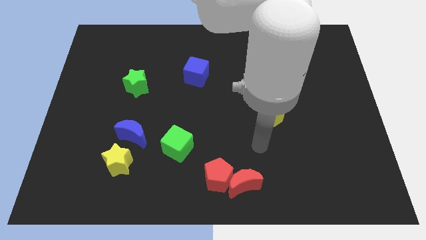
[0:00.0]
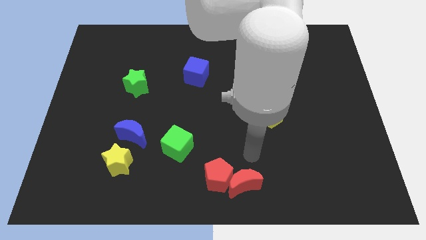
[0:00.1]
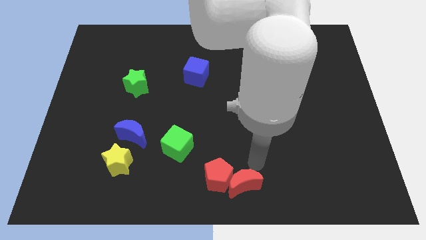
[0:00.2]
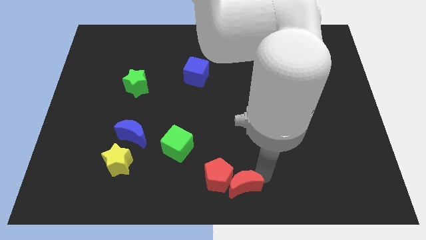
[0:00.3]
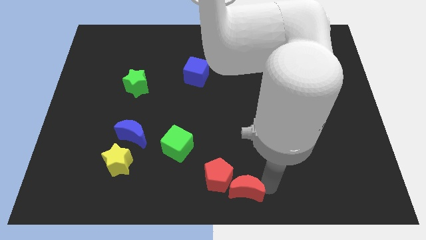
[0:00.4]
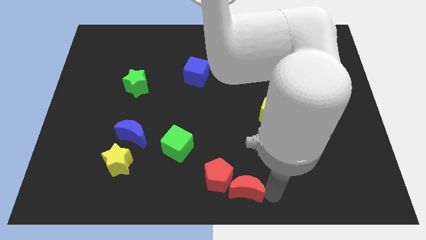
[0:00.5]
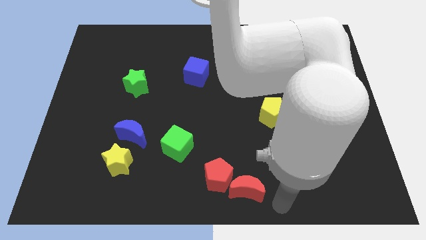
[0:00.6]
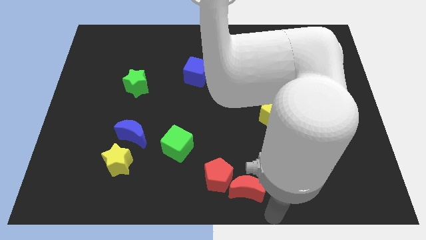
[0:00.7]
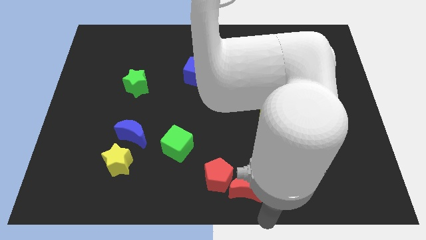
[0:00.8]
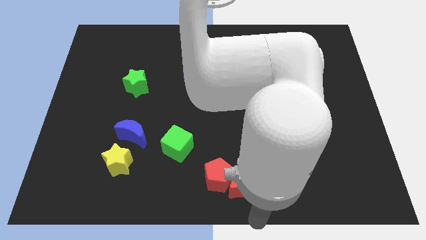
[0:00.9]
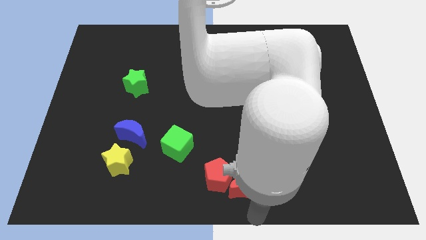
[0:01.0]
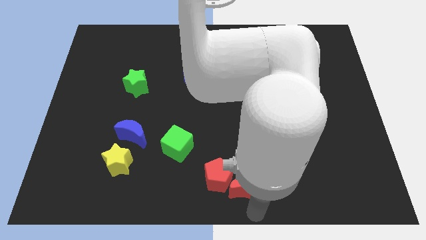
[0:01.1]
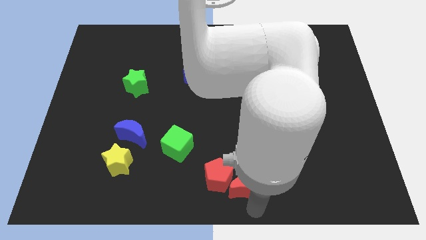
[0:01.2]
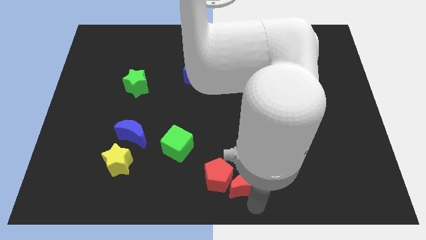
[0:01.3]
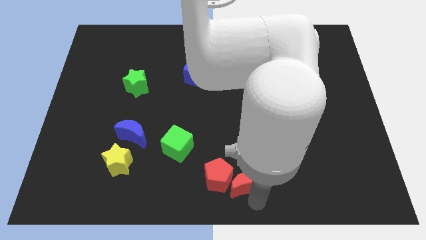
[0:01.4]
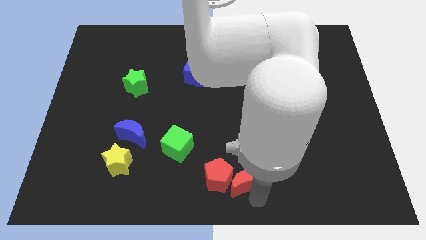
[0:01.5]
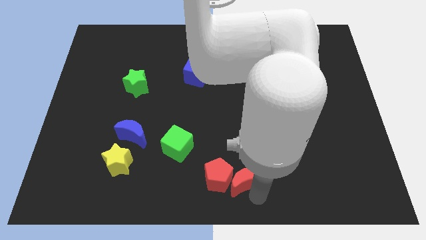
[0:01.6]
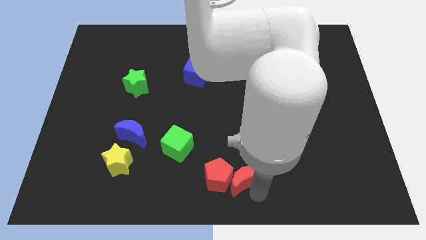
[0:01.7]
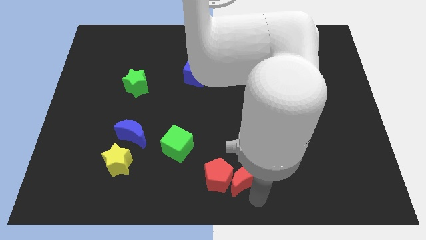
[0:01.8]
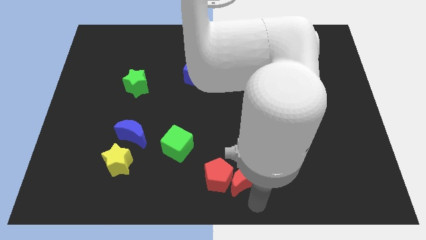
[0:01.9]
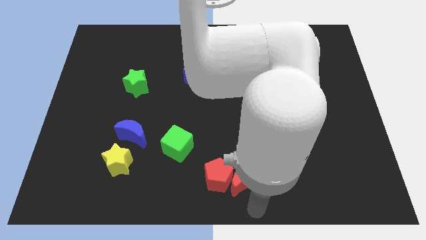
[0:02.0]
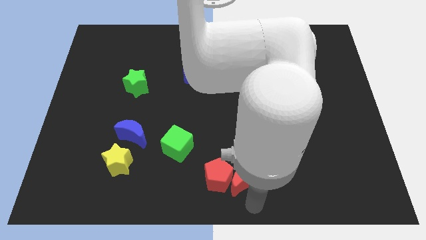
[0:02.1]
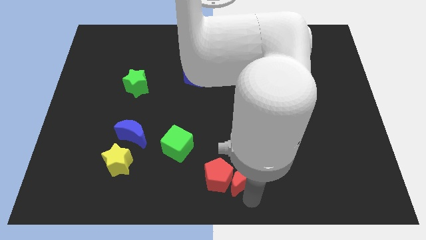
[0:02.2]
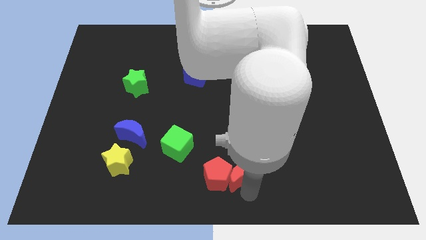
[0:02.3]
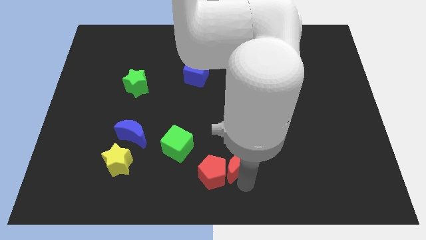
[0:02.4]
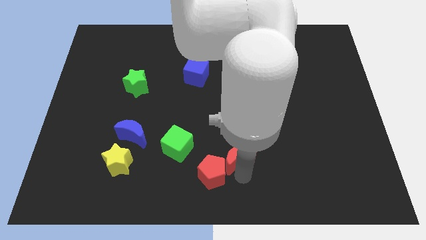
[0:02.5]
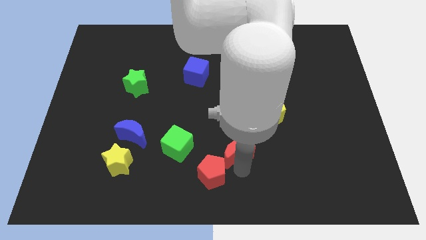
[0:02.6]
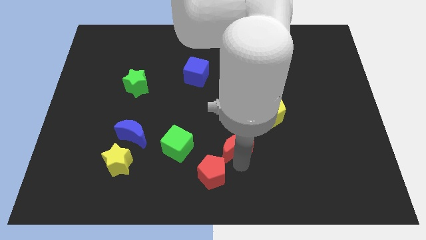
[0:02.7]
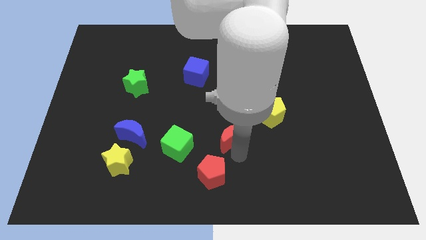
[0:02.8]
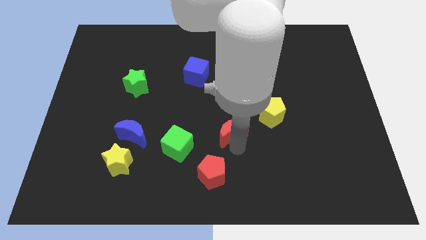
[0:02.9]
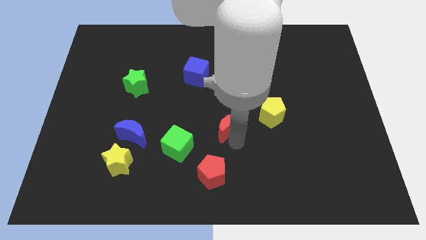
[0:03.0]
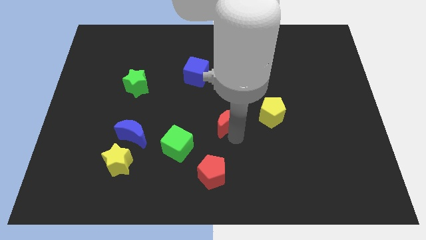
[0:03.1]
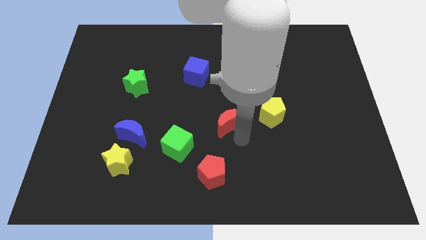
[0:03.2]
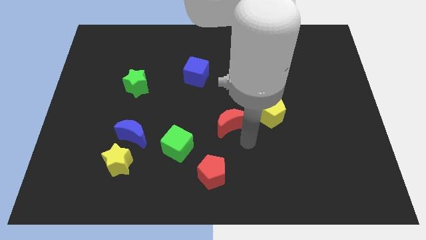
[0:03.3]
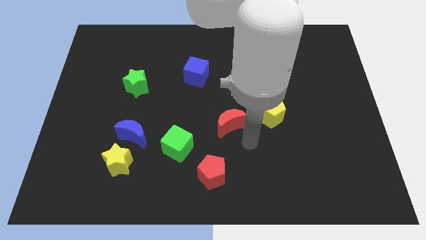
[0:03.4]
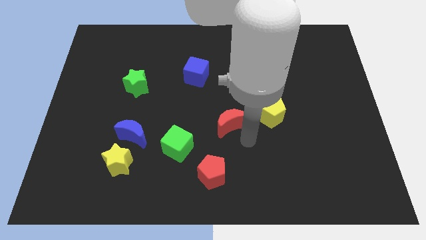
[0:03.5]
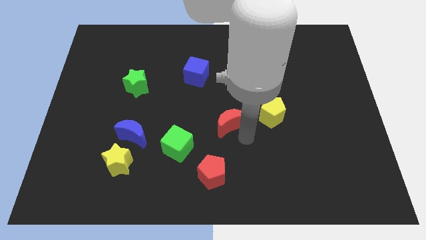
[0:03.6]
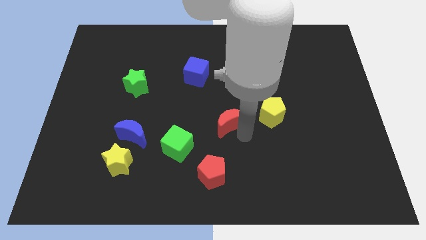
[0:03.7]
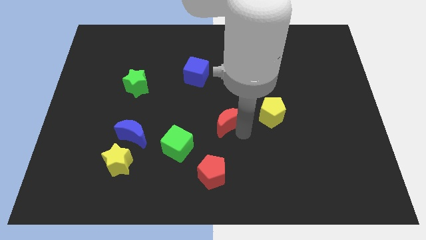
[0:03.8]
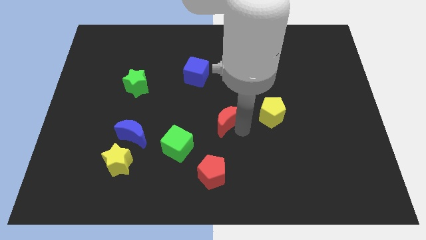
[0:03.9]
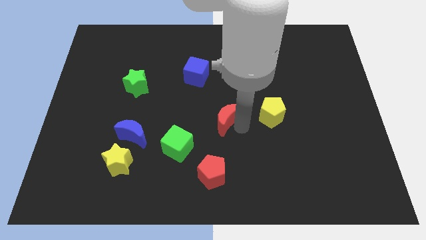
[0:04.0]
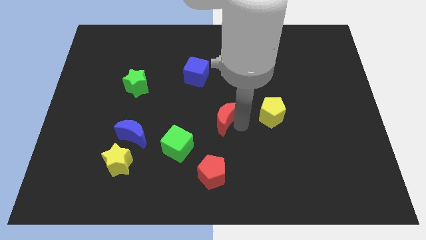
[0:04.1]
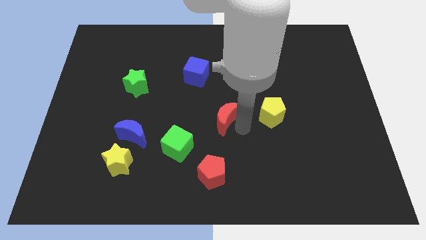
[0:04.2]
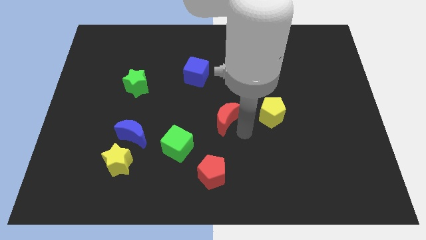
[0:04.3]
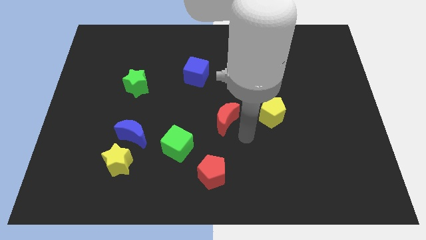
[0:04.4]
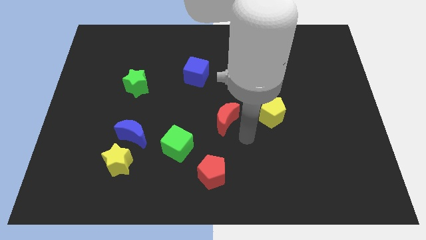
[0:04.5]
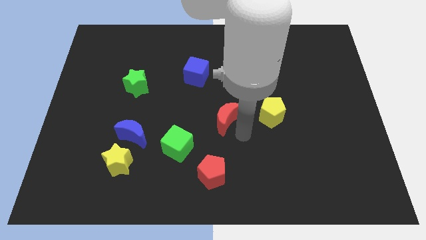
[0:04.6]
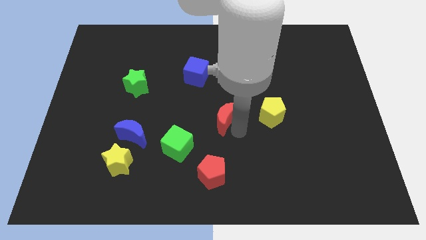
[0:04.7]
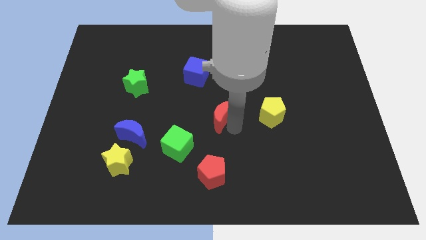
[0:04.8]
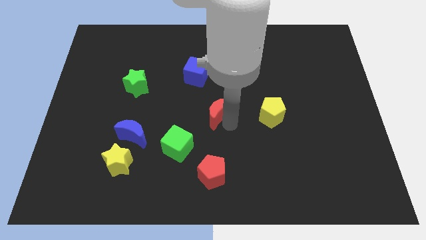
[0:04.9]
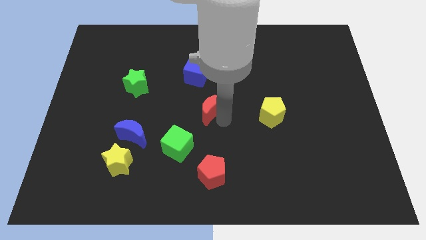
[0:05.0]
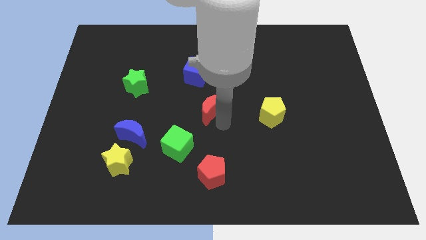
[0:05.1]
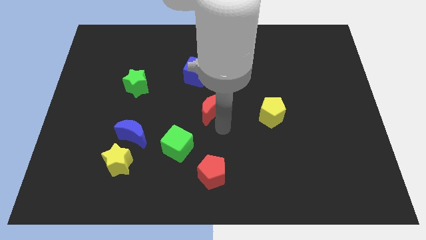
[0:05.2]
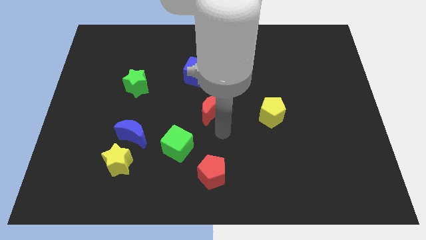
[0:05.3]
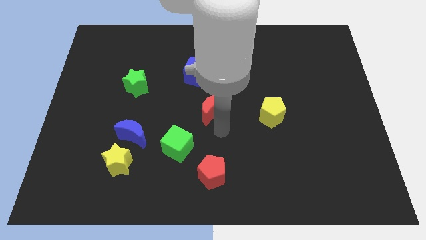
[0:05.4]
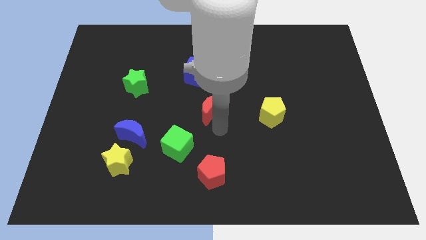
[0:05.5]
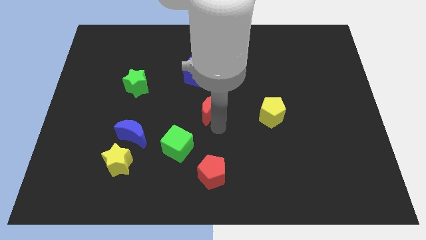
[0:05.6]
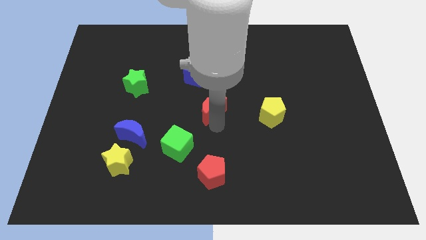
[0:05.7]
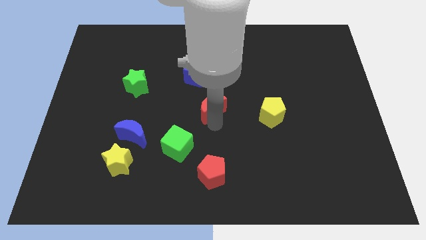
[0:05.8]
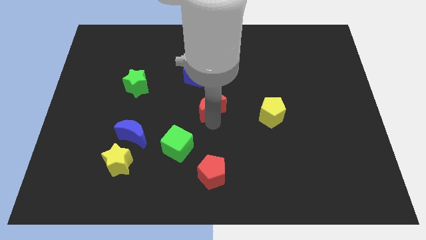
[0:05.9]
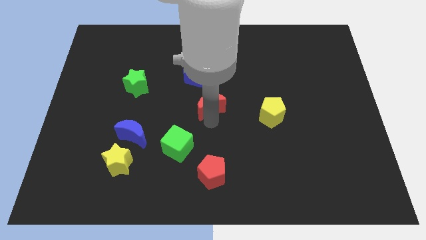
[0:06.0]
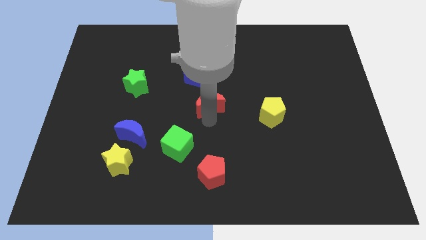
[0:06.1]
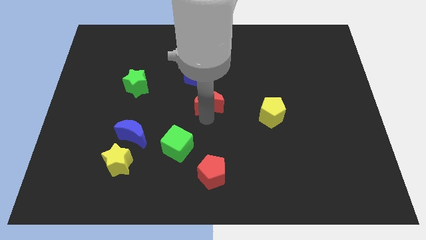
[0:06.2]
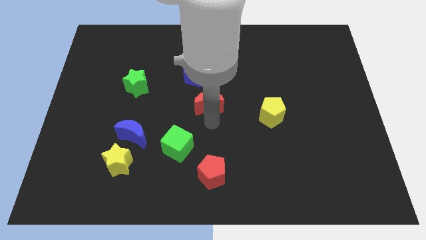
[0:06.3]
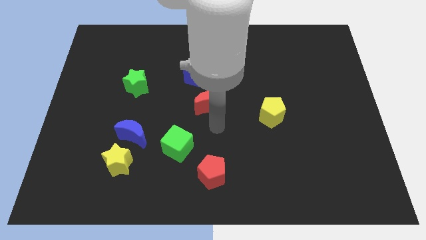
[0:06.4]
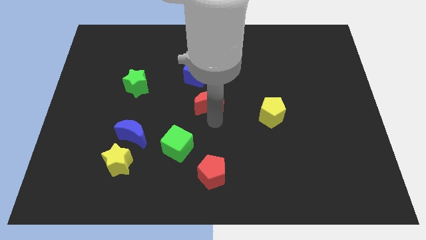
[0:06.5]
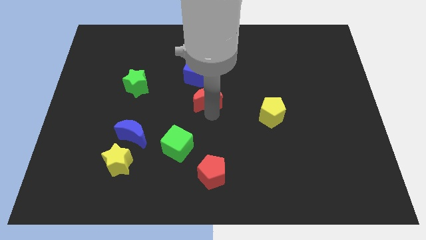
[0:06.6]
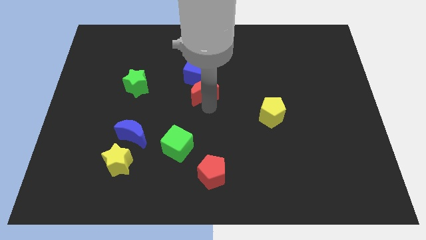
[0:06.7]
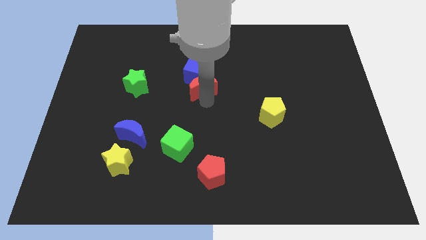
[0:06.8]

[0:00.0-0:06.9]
move the red moon towards the blue cube
